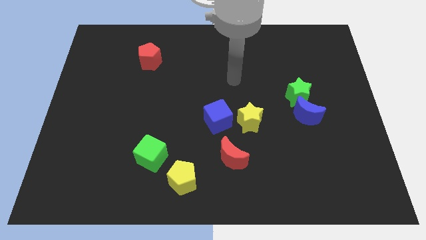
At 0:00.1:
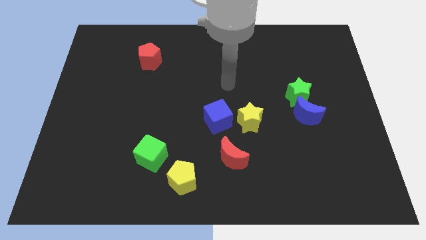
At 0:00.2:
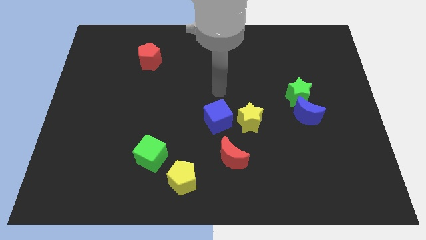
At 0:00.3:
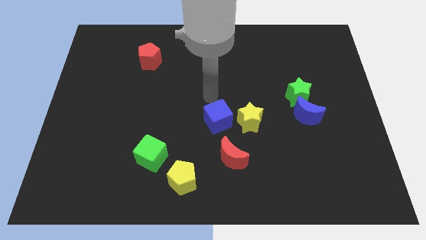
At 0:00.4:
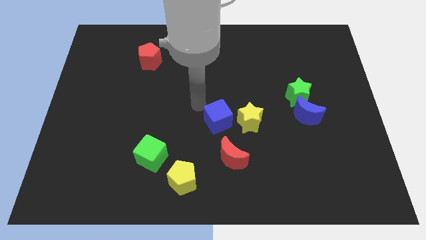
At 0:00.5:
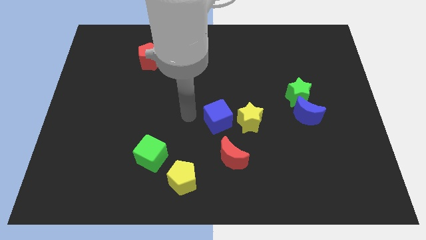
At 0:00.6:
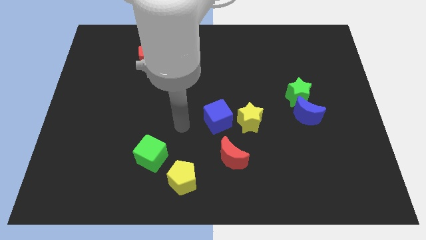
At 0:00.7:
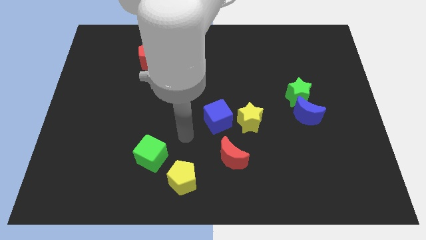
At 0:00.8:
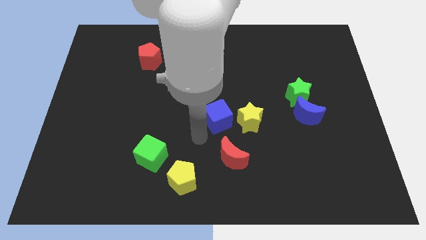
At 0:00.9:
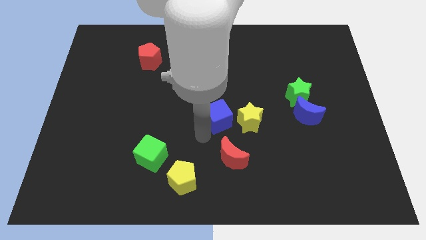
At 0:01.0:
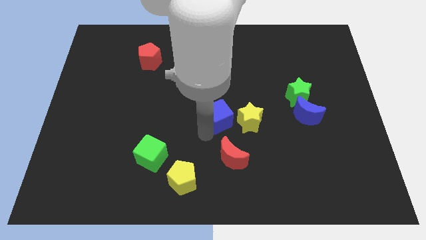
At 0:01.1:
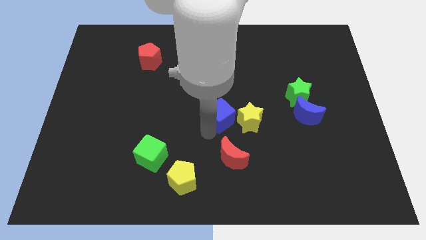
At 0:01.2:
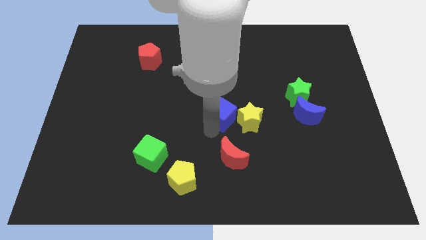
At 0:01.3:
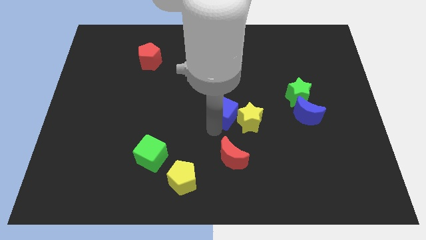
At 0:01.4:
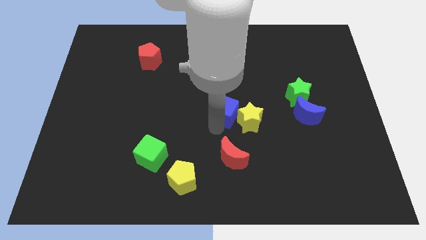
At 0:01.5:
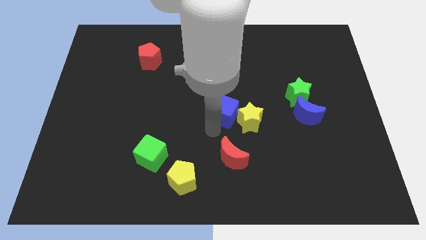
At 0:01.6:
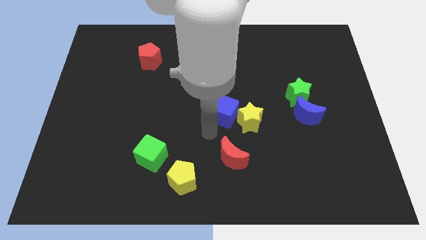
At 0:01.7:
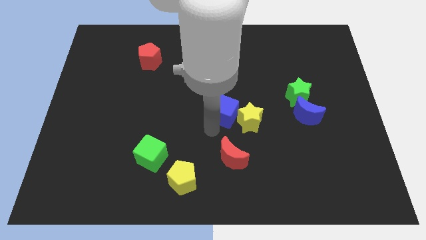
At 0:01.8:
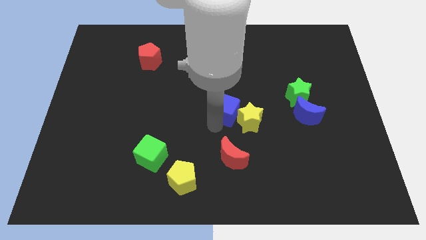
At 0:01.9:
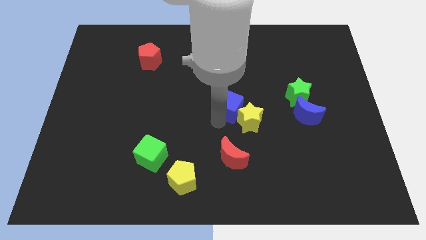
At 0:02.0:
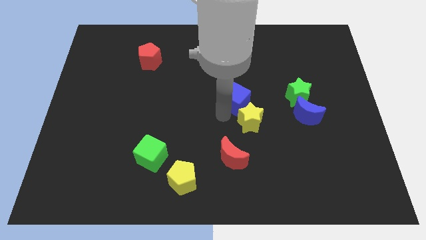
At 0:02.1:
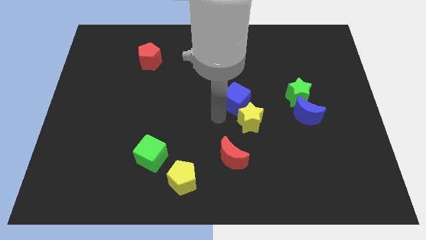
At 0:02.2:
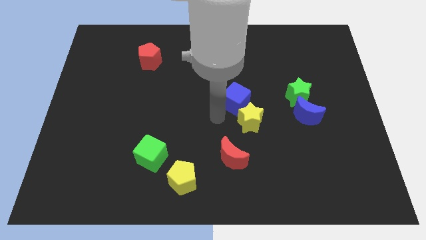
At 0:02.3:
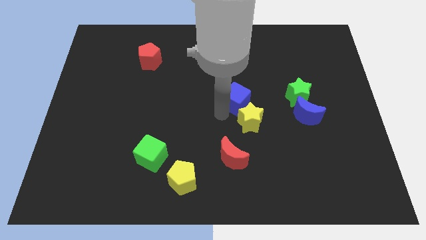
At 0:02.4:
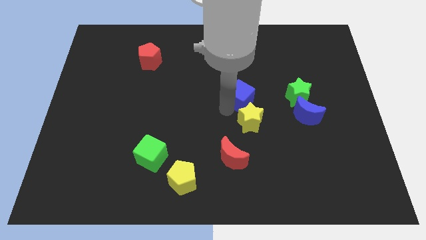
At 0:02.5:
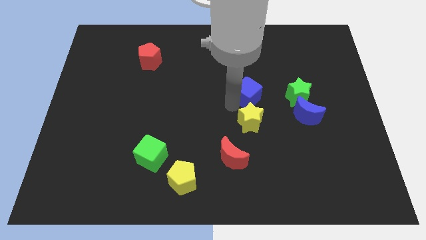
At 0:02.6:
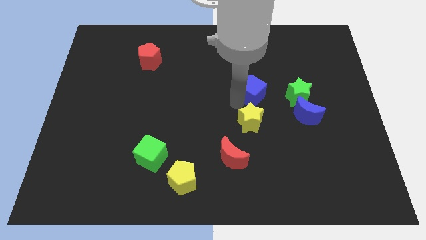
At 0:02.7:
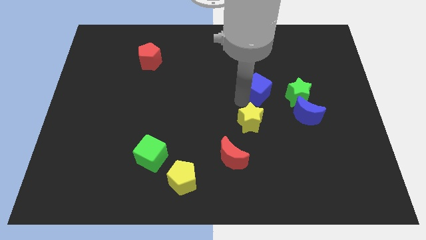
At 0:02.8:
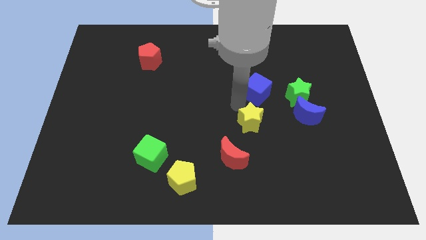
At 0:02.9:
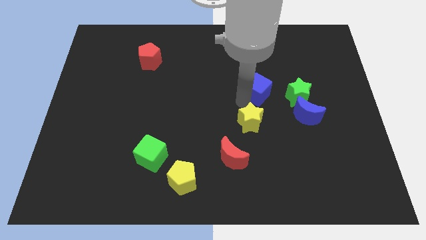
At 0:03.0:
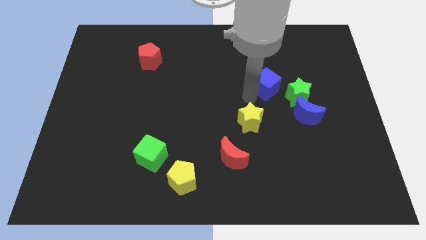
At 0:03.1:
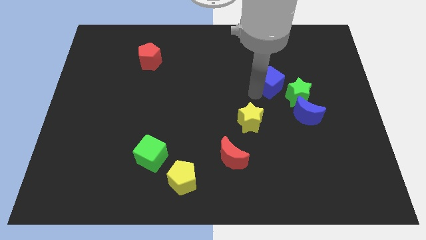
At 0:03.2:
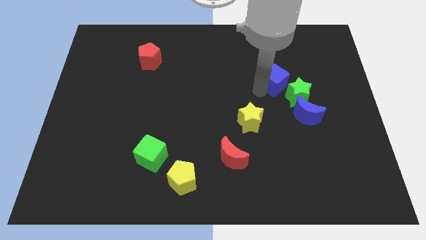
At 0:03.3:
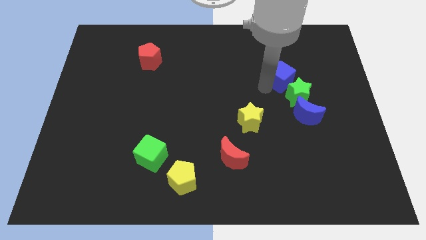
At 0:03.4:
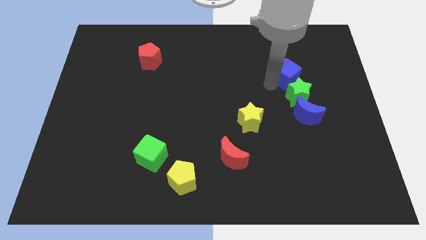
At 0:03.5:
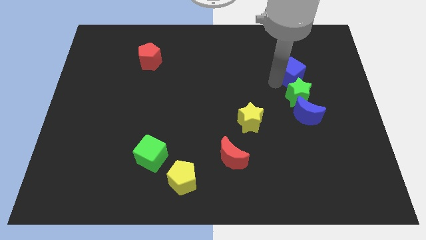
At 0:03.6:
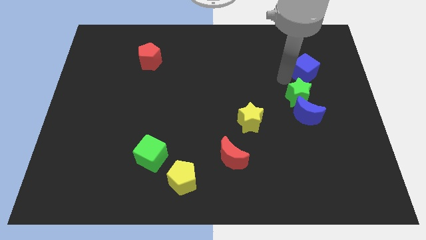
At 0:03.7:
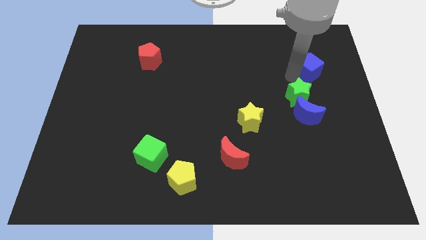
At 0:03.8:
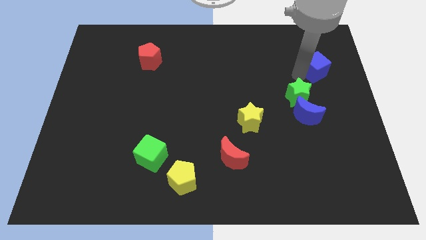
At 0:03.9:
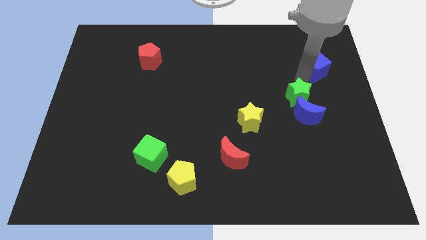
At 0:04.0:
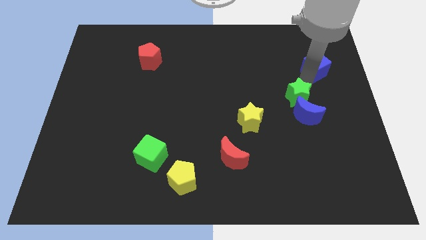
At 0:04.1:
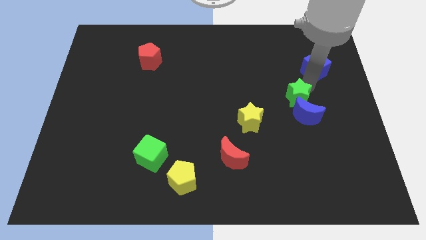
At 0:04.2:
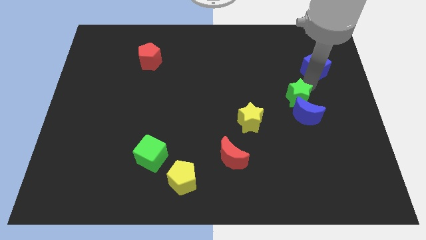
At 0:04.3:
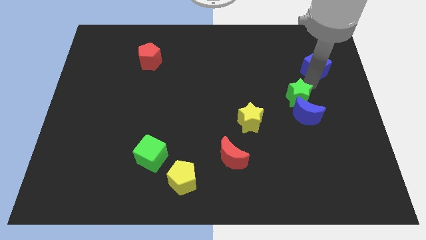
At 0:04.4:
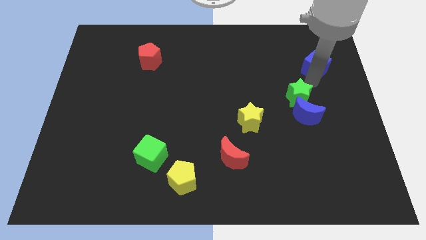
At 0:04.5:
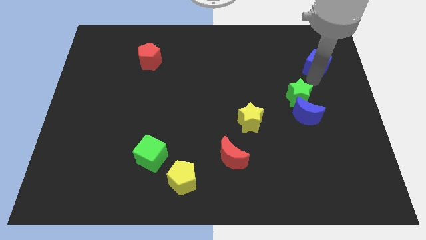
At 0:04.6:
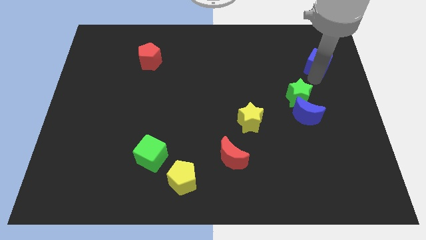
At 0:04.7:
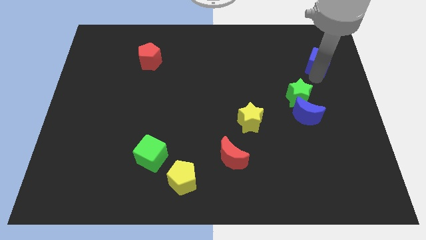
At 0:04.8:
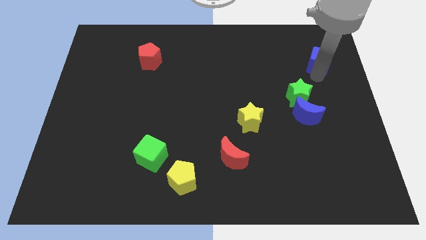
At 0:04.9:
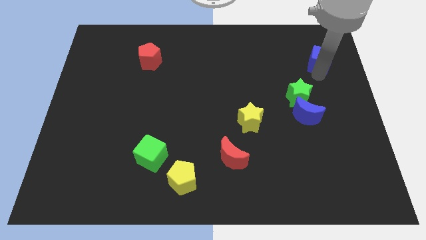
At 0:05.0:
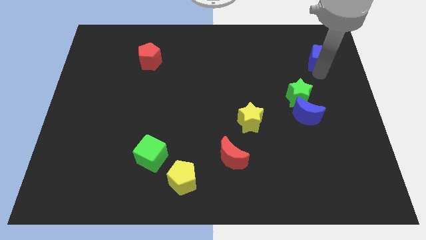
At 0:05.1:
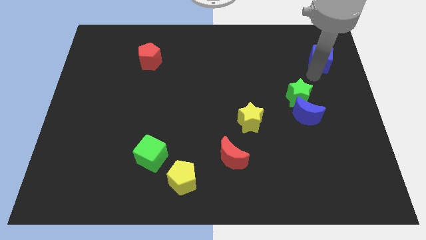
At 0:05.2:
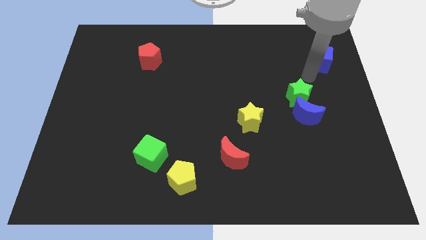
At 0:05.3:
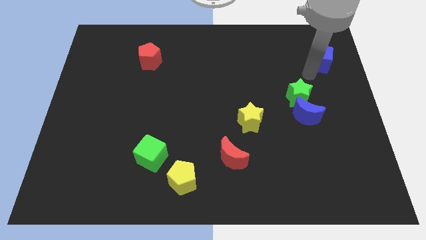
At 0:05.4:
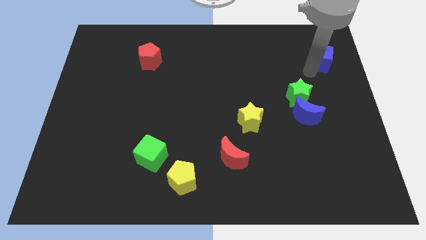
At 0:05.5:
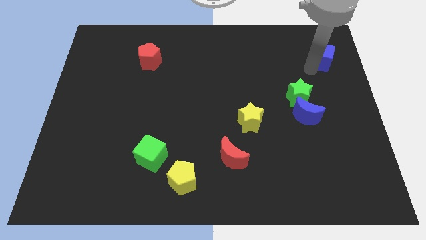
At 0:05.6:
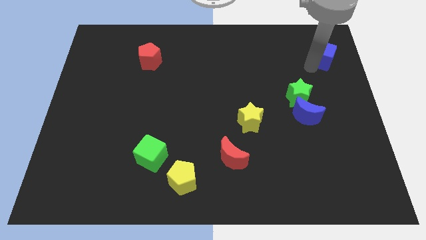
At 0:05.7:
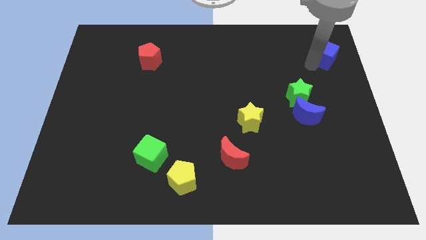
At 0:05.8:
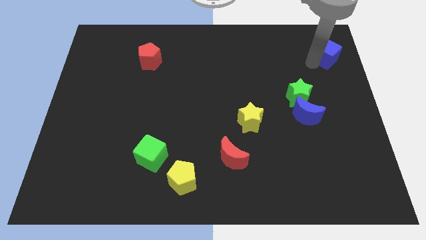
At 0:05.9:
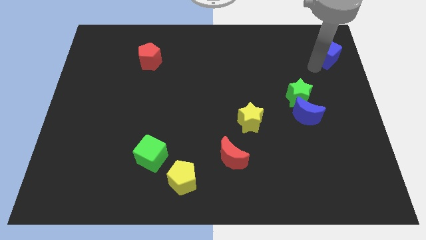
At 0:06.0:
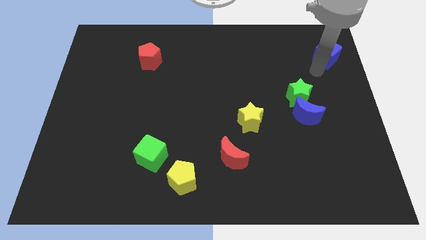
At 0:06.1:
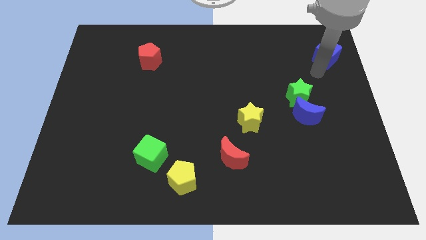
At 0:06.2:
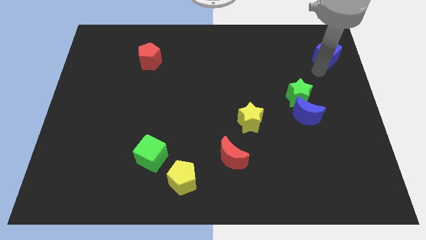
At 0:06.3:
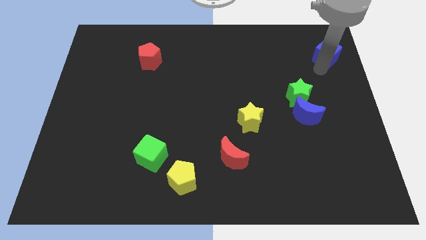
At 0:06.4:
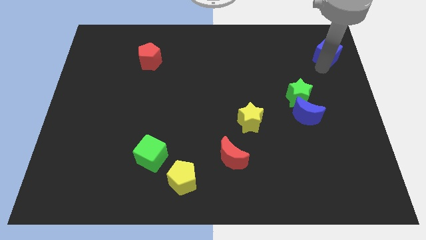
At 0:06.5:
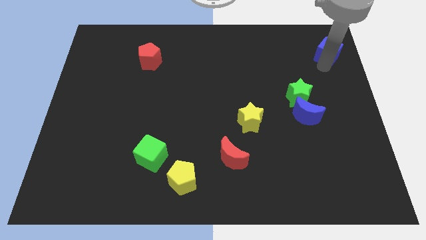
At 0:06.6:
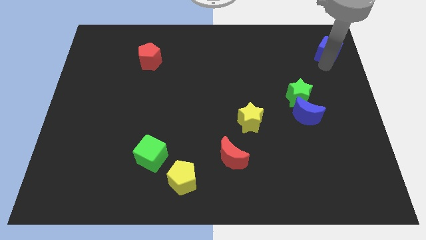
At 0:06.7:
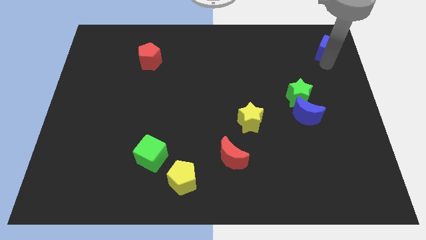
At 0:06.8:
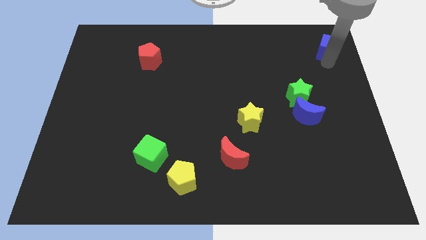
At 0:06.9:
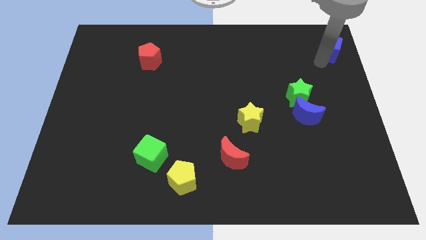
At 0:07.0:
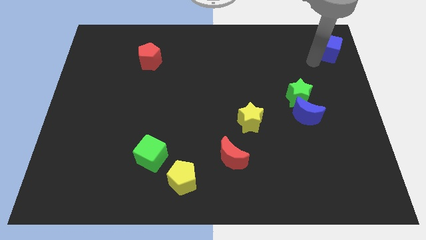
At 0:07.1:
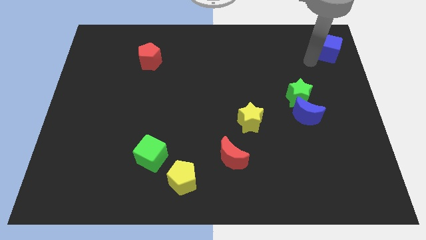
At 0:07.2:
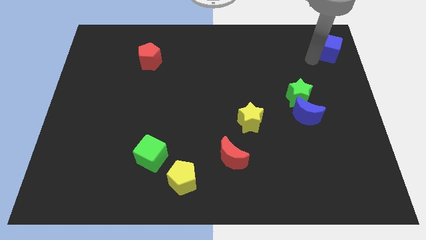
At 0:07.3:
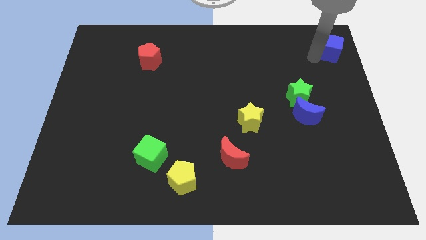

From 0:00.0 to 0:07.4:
push the blue cube to the top right of the board
